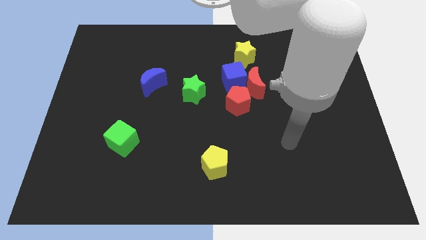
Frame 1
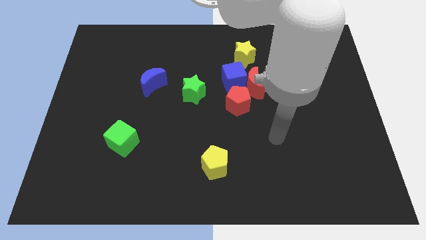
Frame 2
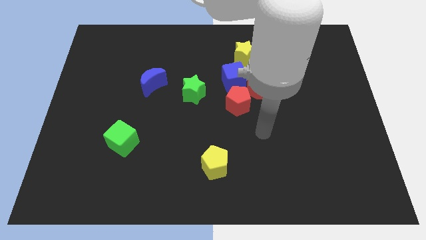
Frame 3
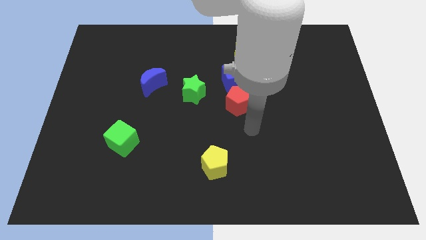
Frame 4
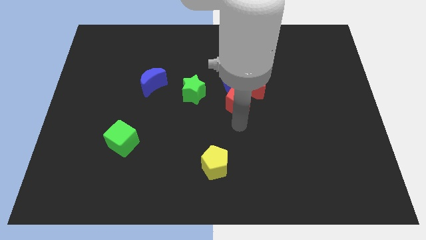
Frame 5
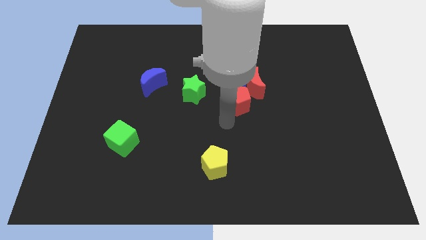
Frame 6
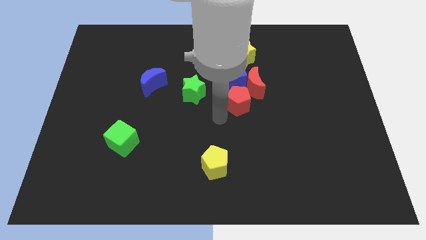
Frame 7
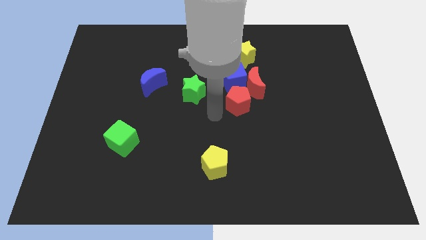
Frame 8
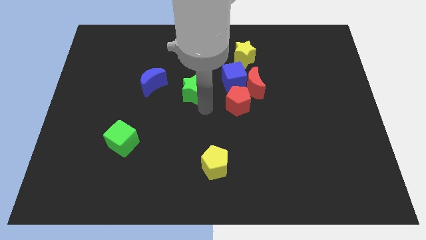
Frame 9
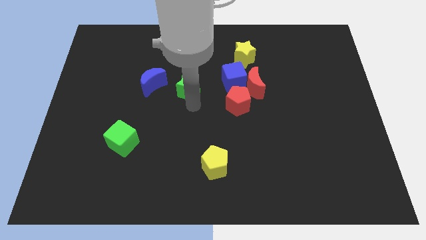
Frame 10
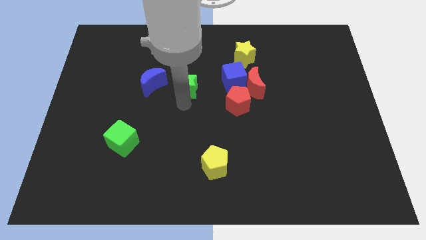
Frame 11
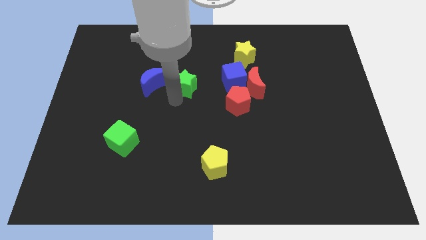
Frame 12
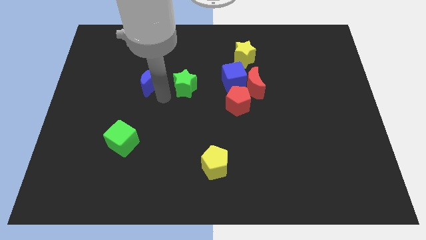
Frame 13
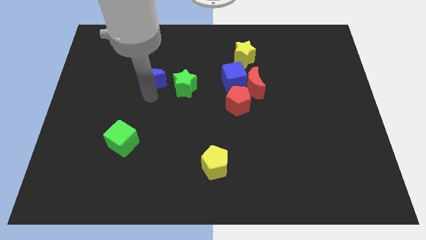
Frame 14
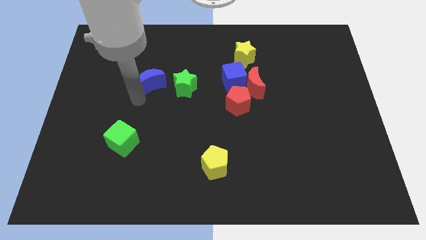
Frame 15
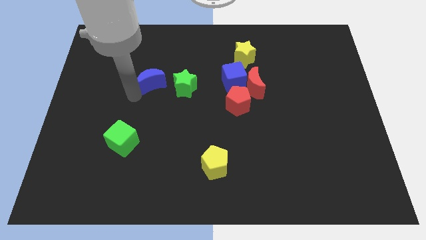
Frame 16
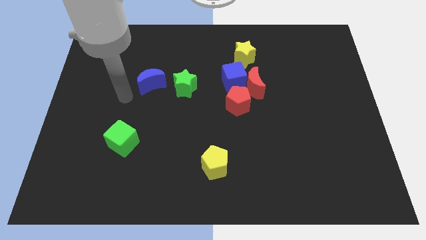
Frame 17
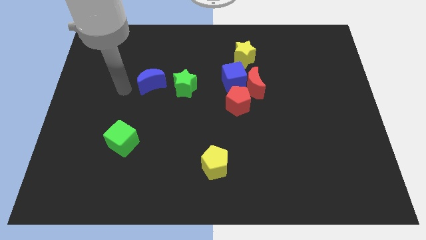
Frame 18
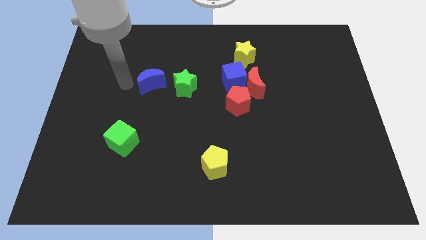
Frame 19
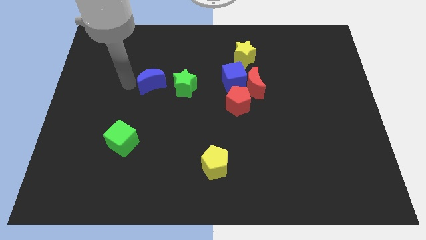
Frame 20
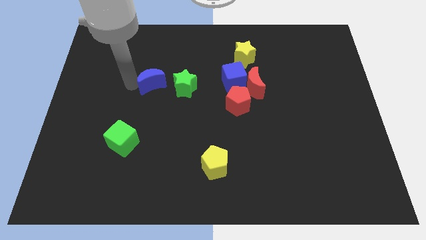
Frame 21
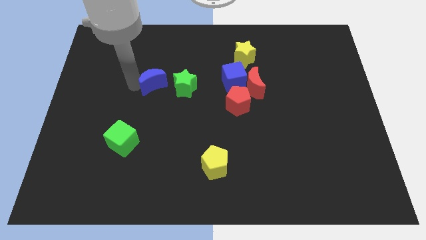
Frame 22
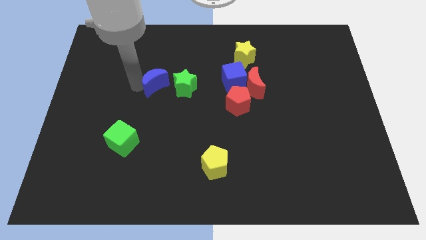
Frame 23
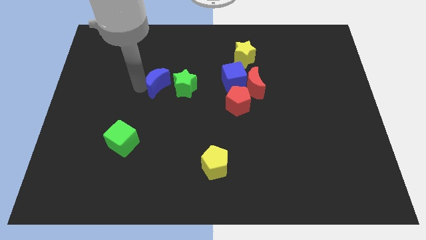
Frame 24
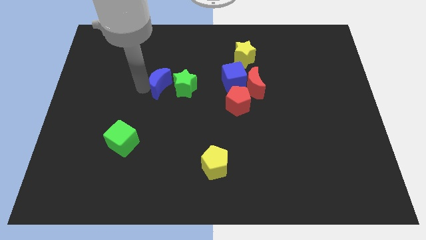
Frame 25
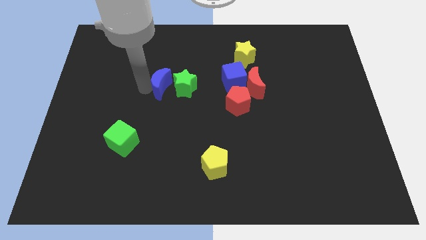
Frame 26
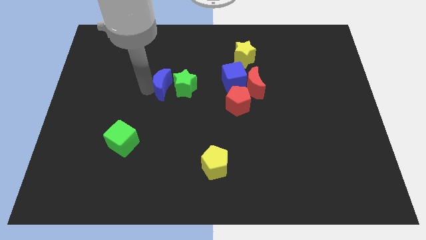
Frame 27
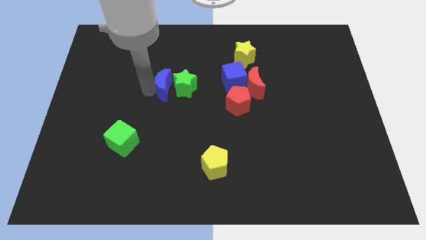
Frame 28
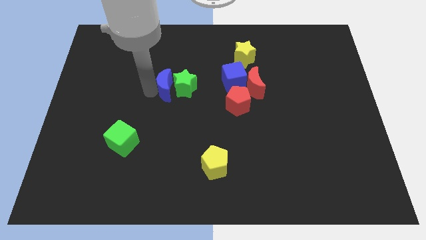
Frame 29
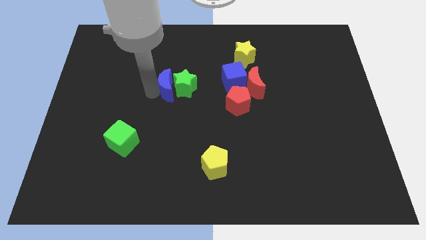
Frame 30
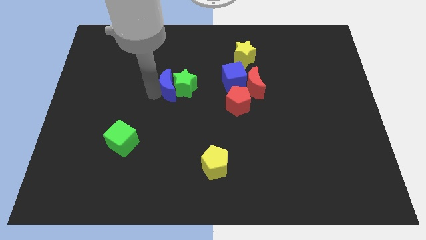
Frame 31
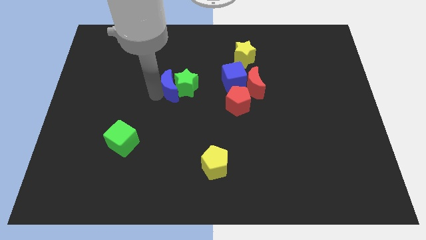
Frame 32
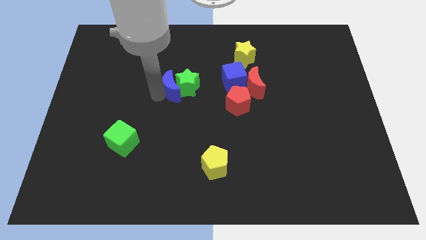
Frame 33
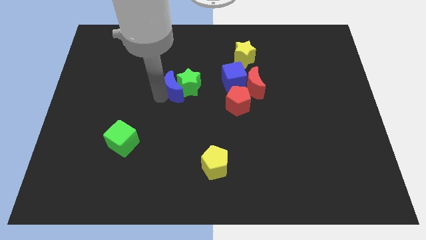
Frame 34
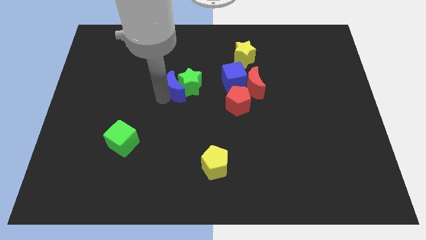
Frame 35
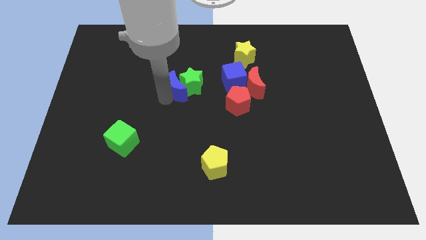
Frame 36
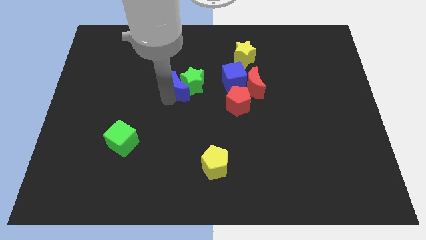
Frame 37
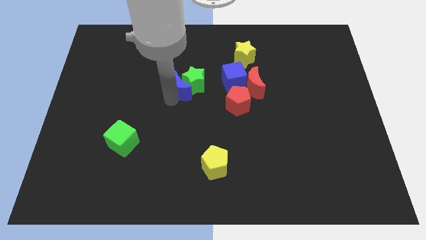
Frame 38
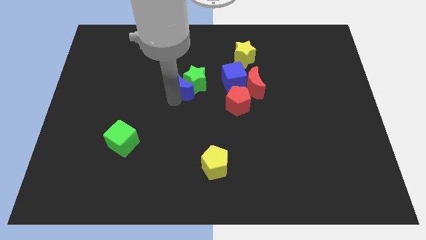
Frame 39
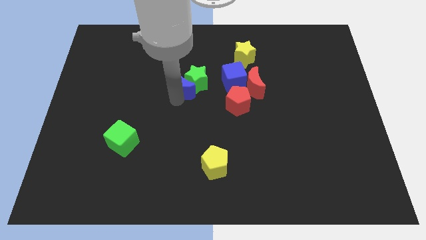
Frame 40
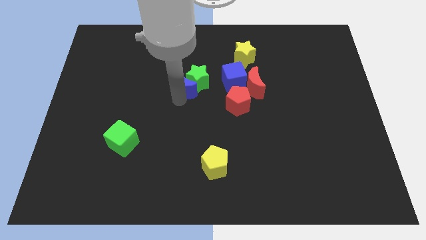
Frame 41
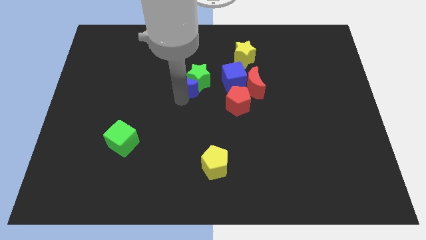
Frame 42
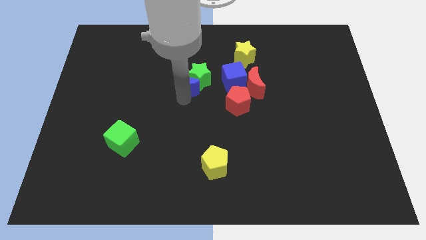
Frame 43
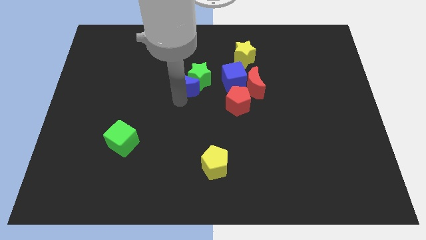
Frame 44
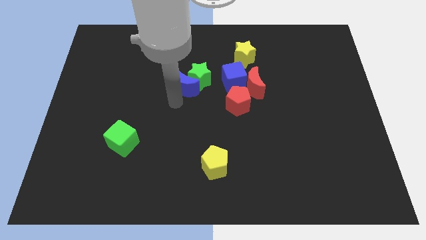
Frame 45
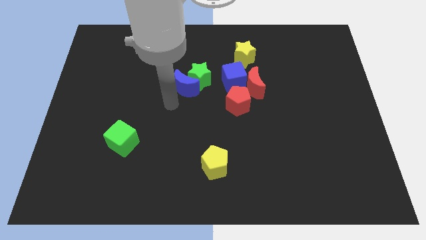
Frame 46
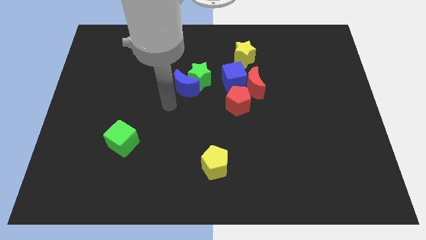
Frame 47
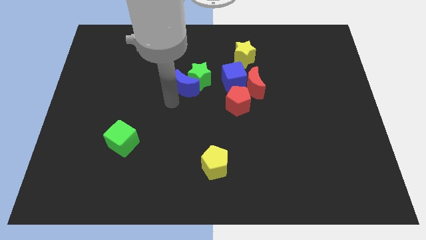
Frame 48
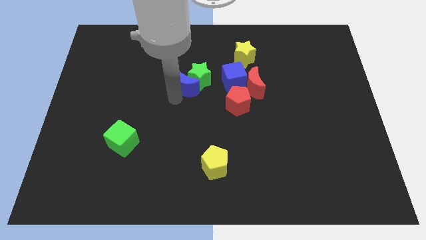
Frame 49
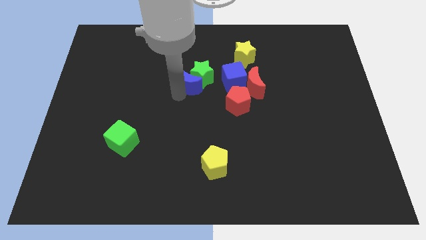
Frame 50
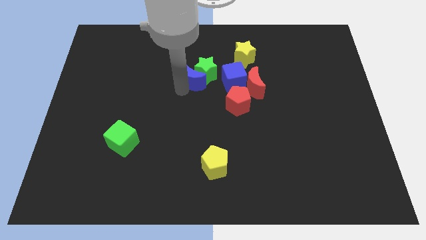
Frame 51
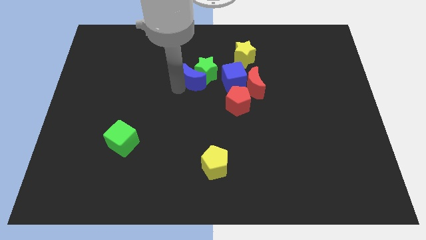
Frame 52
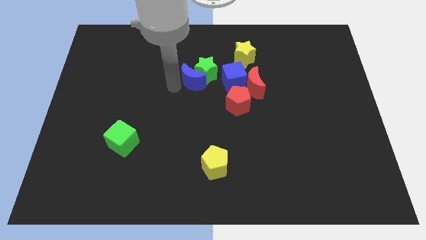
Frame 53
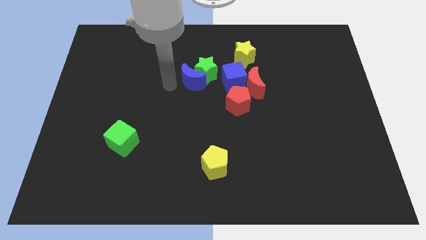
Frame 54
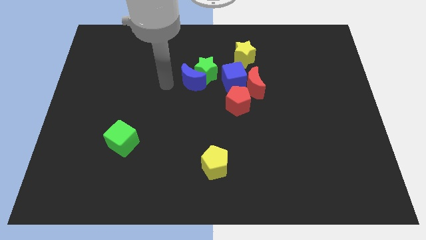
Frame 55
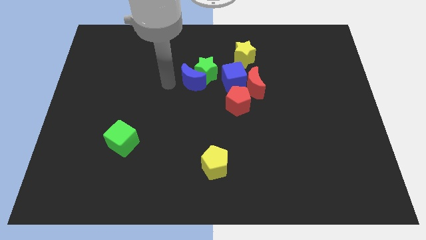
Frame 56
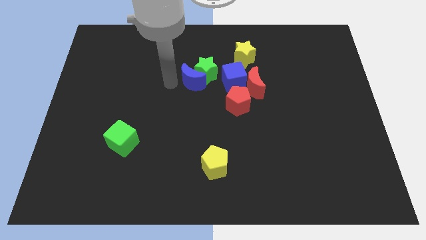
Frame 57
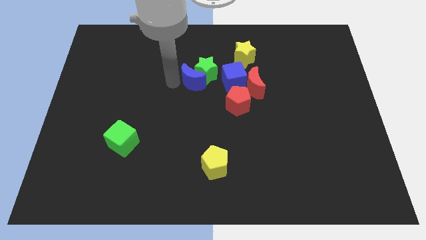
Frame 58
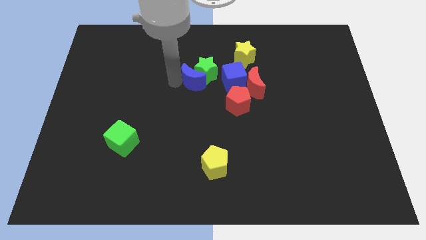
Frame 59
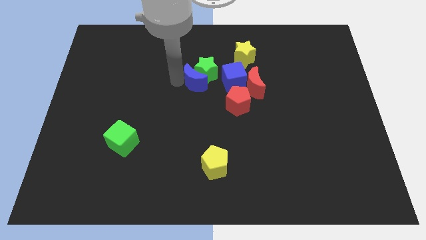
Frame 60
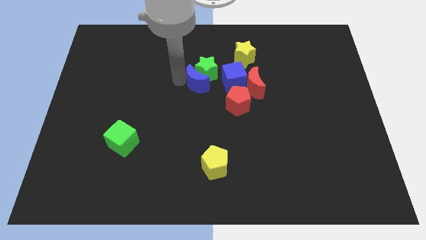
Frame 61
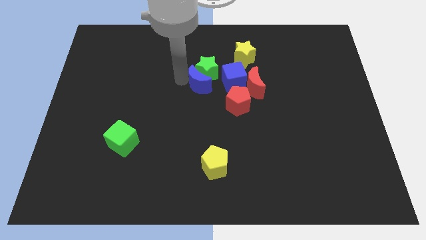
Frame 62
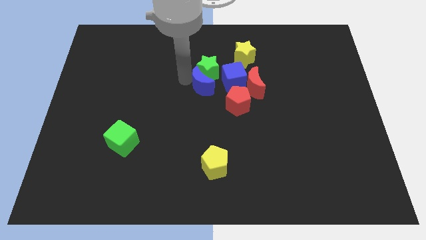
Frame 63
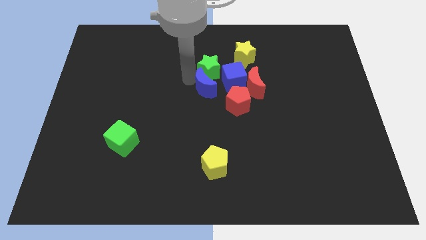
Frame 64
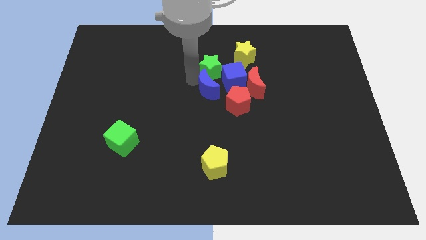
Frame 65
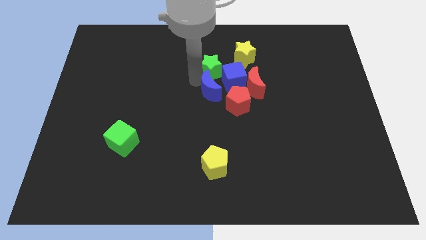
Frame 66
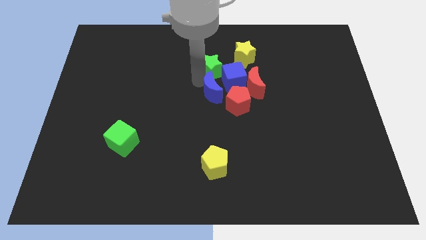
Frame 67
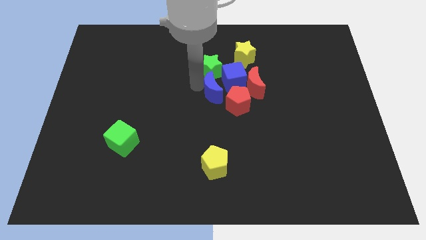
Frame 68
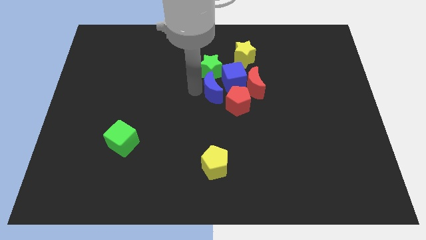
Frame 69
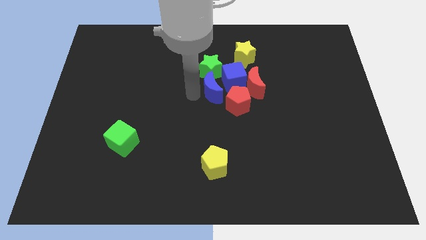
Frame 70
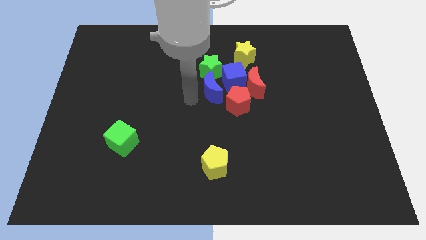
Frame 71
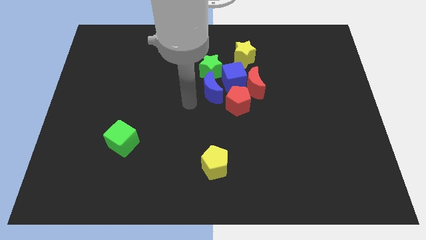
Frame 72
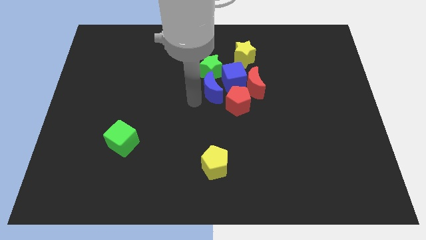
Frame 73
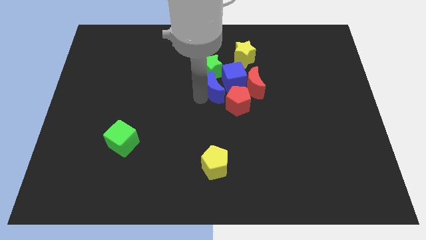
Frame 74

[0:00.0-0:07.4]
put the blue moon to the blue cube
